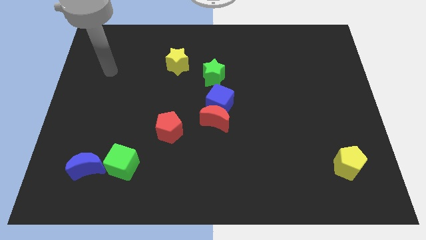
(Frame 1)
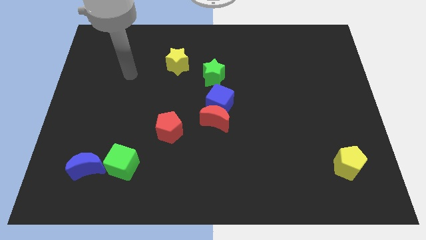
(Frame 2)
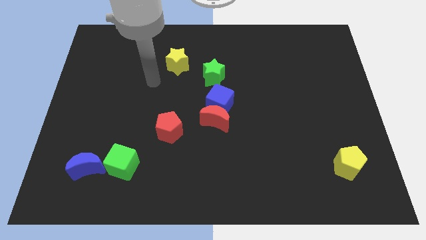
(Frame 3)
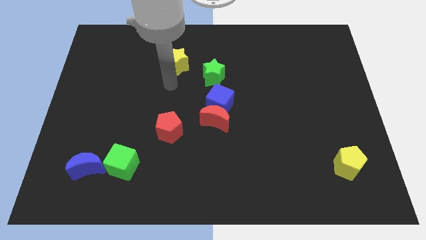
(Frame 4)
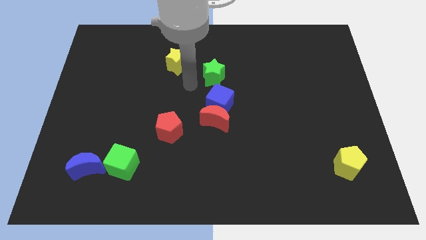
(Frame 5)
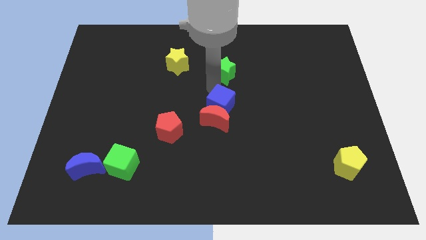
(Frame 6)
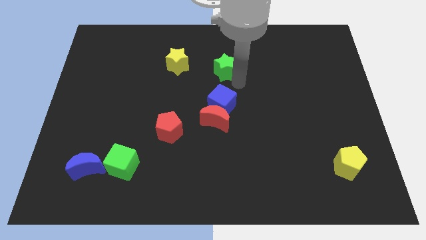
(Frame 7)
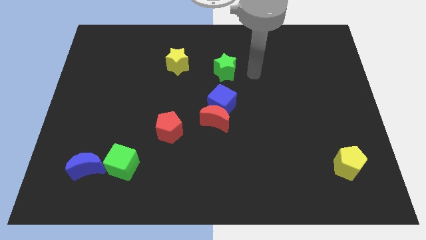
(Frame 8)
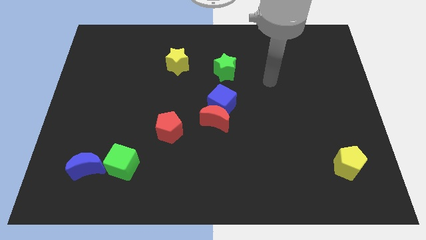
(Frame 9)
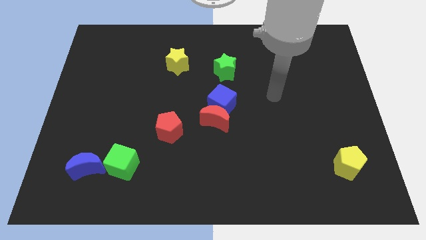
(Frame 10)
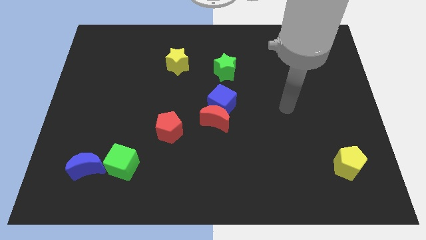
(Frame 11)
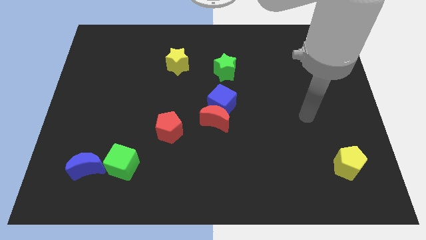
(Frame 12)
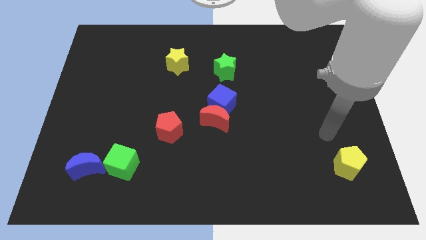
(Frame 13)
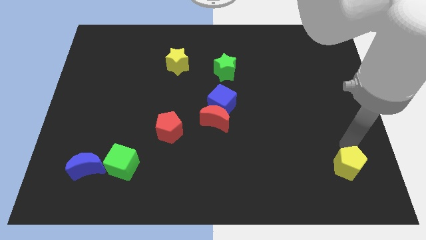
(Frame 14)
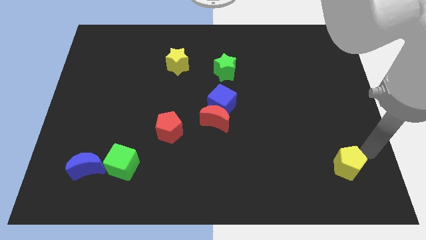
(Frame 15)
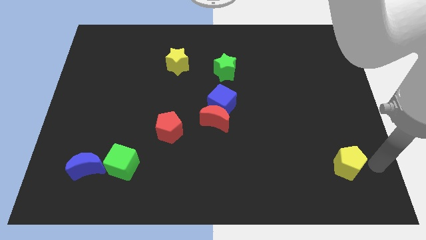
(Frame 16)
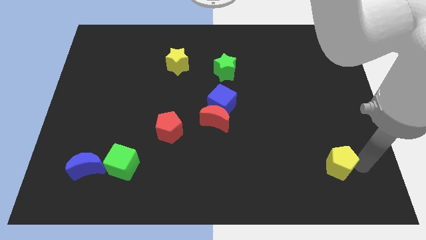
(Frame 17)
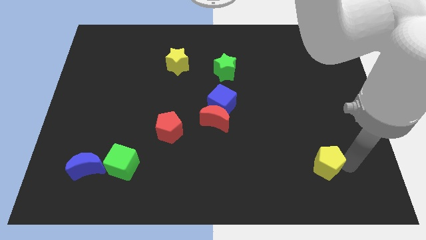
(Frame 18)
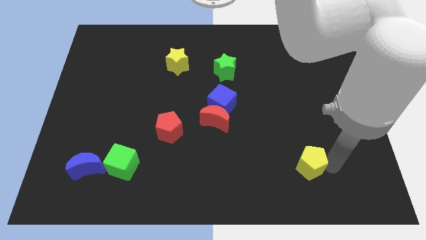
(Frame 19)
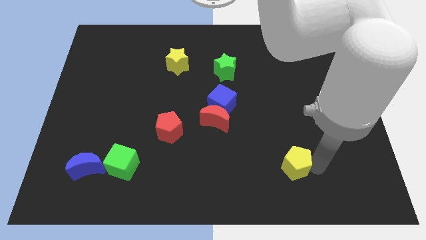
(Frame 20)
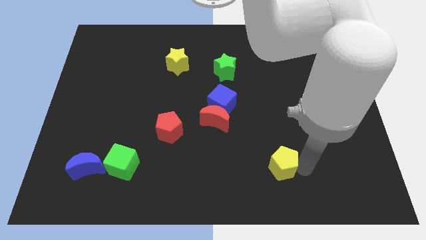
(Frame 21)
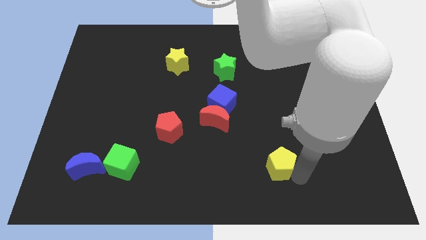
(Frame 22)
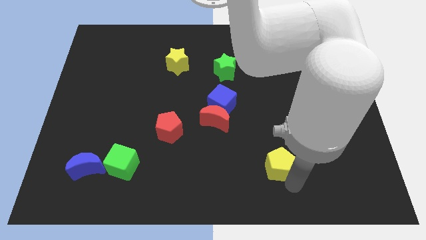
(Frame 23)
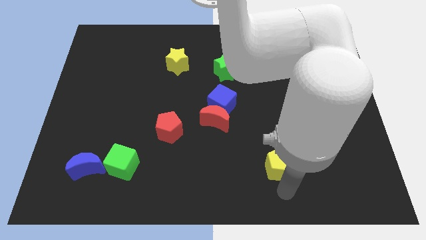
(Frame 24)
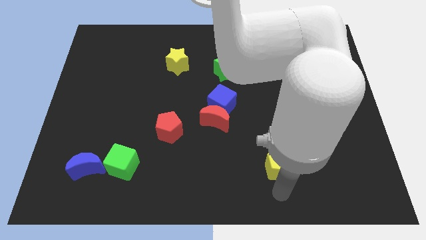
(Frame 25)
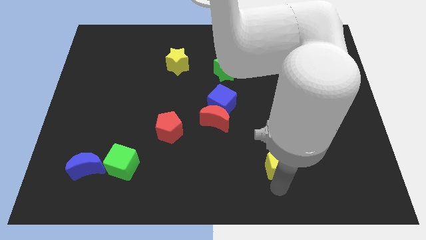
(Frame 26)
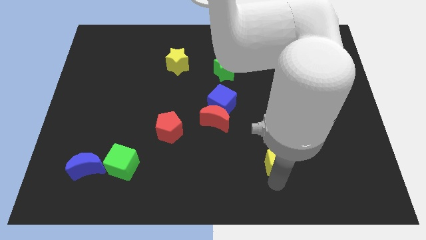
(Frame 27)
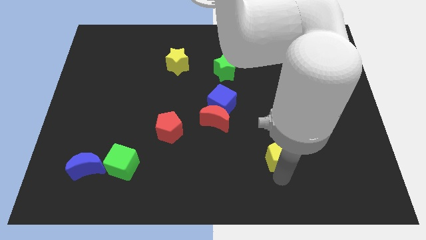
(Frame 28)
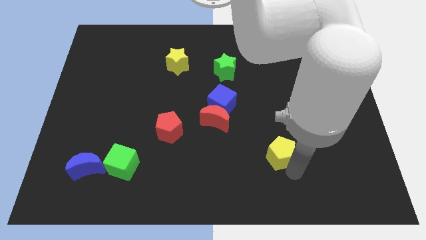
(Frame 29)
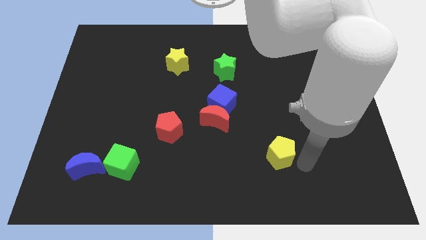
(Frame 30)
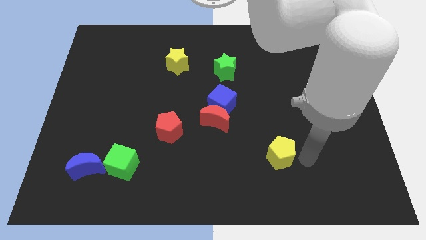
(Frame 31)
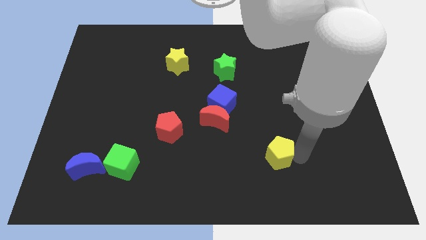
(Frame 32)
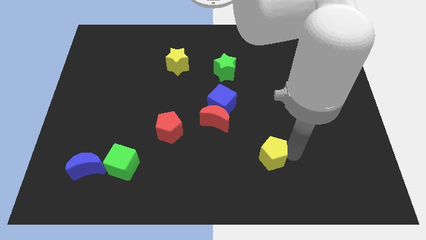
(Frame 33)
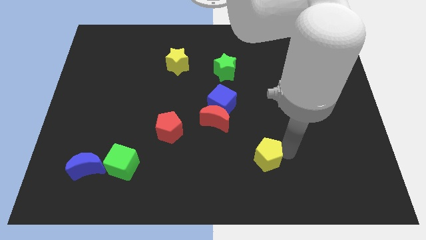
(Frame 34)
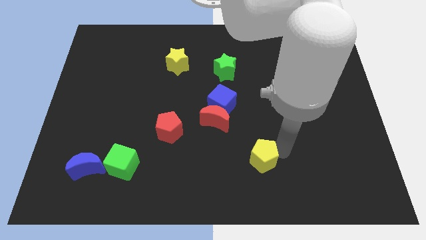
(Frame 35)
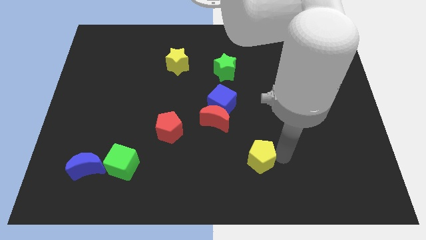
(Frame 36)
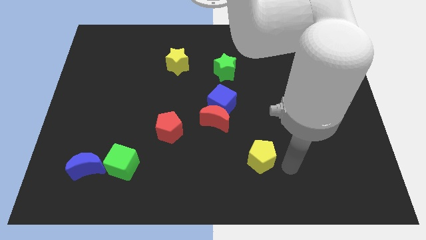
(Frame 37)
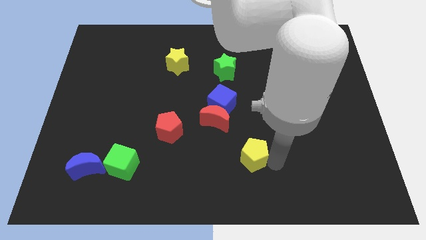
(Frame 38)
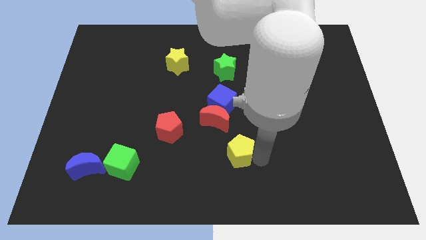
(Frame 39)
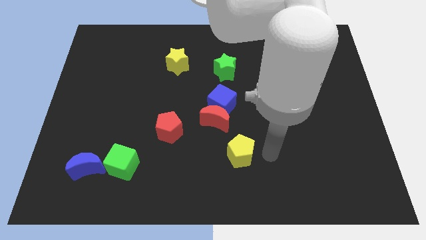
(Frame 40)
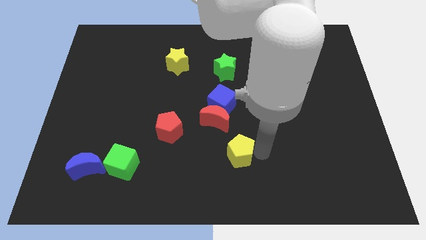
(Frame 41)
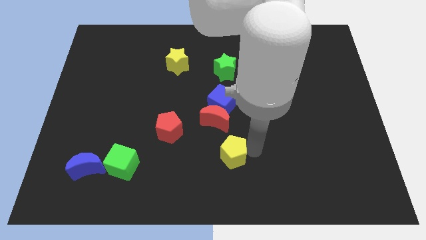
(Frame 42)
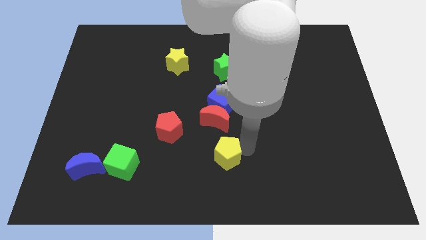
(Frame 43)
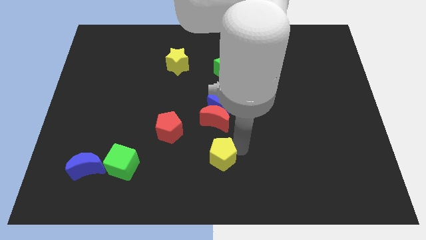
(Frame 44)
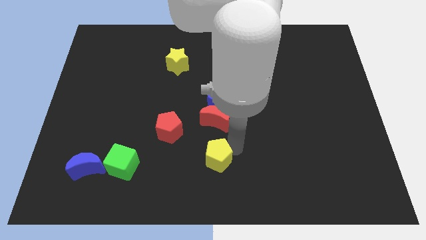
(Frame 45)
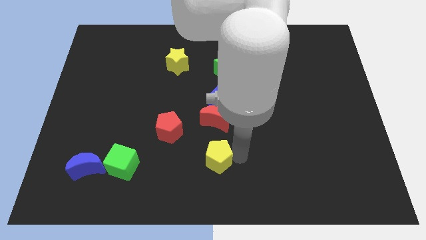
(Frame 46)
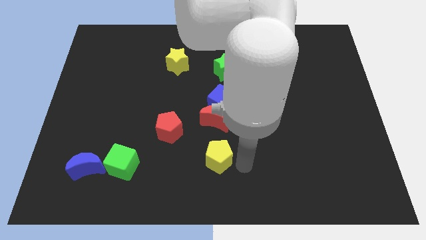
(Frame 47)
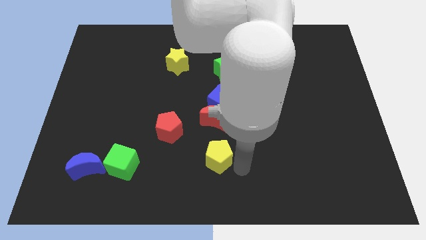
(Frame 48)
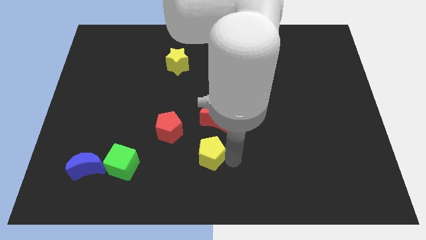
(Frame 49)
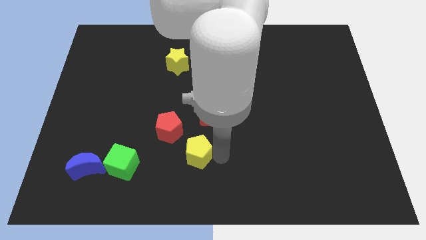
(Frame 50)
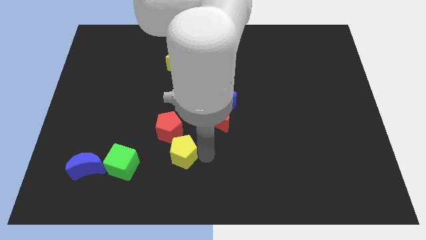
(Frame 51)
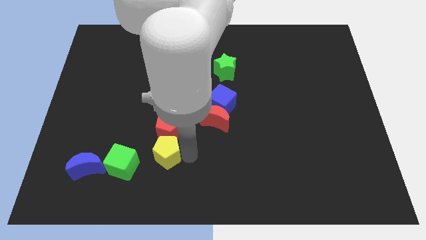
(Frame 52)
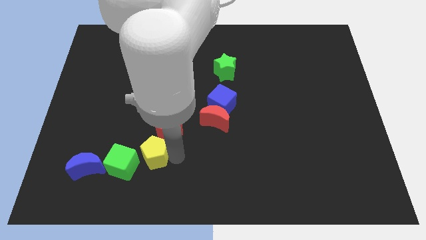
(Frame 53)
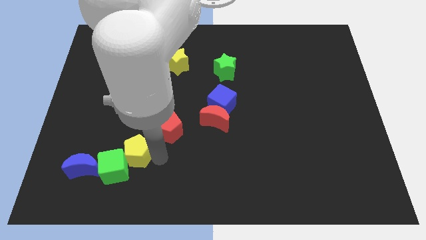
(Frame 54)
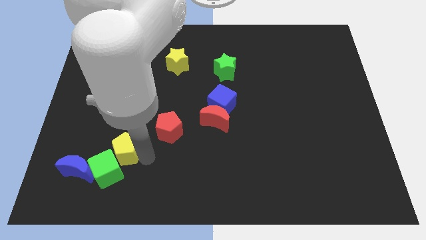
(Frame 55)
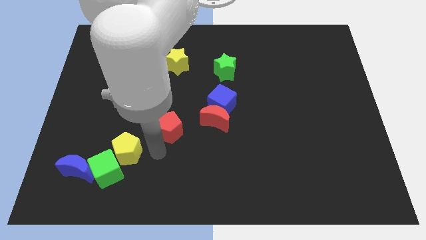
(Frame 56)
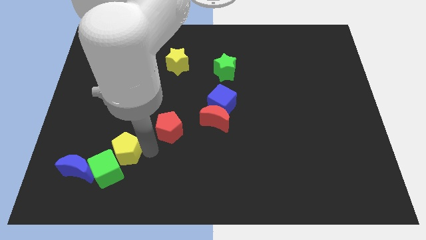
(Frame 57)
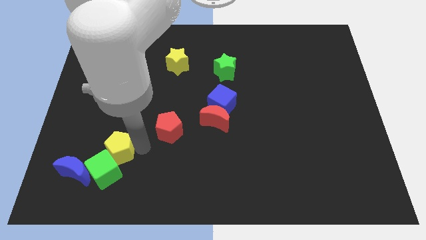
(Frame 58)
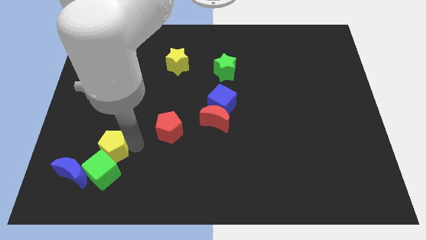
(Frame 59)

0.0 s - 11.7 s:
move the yellow pentagon to the top left of the green cube
